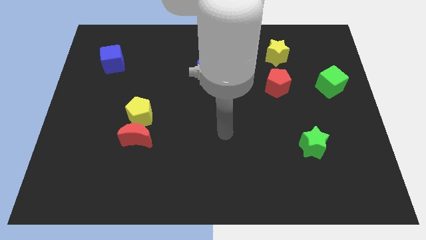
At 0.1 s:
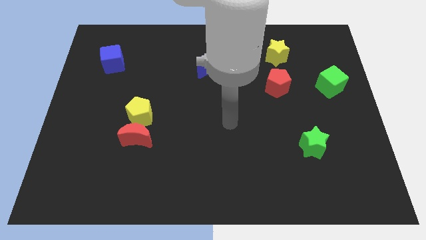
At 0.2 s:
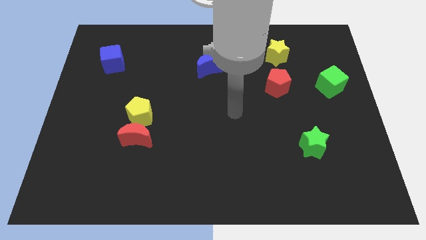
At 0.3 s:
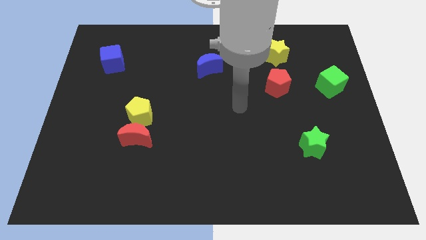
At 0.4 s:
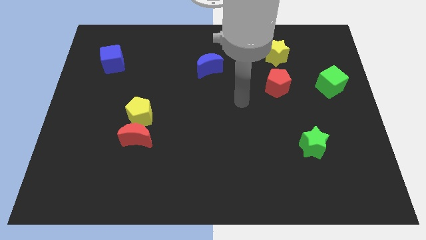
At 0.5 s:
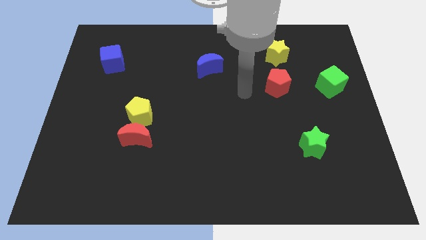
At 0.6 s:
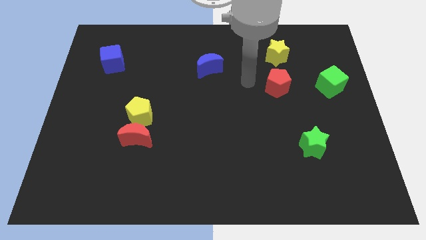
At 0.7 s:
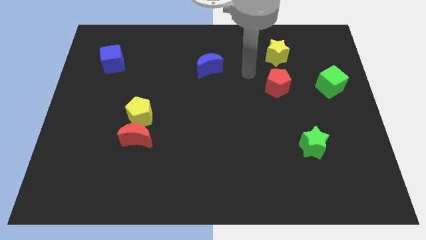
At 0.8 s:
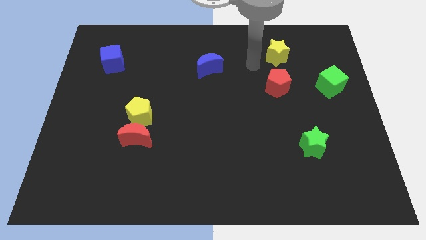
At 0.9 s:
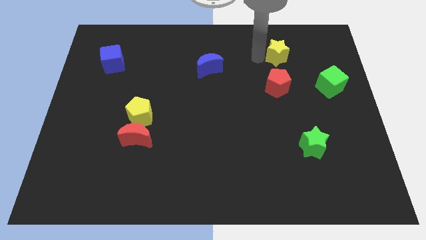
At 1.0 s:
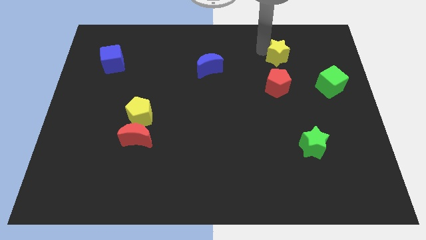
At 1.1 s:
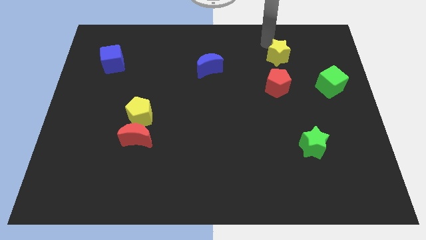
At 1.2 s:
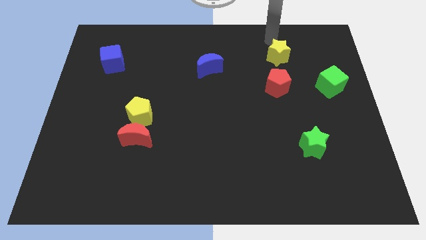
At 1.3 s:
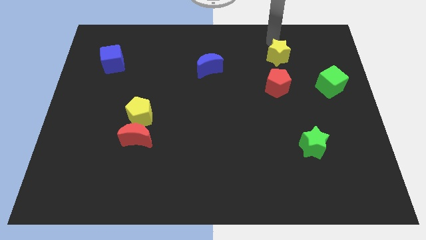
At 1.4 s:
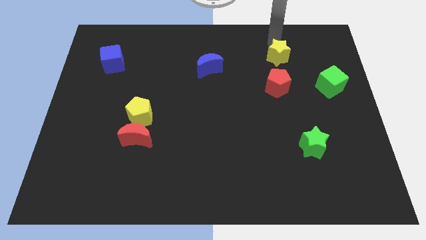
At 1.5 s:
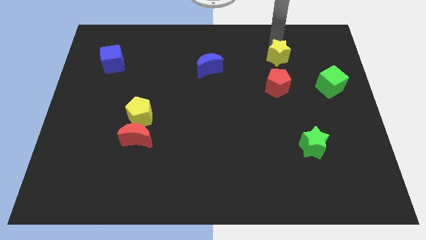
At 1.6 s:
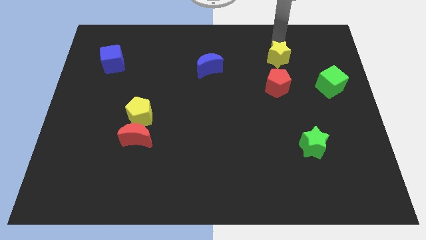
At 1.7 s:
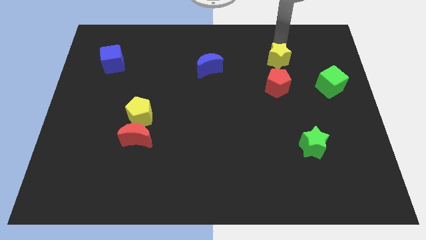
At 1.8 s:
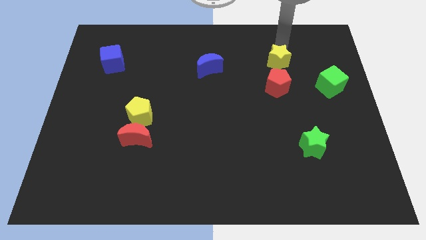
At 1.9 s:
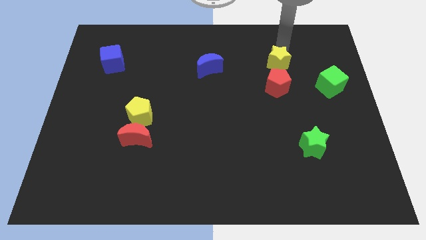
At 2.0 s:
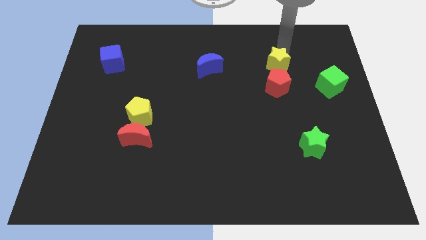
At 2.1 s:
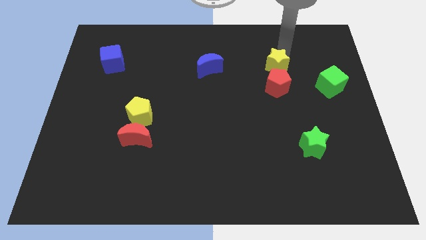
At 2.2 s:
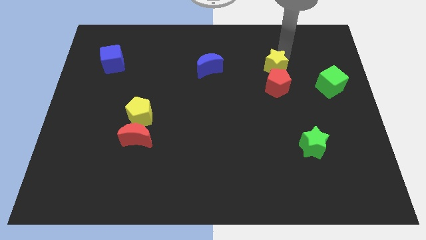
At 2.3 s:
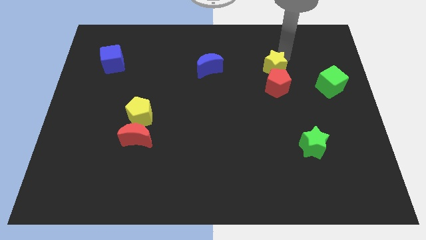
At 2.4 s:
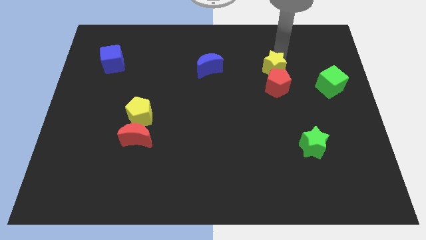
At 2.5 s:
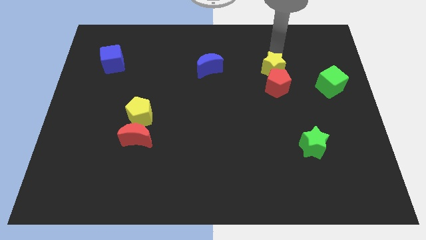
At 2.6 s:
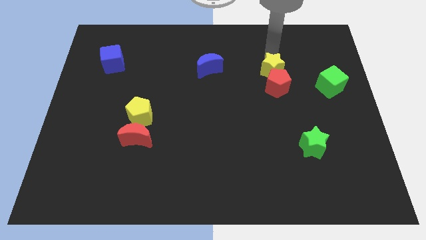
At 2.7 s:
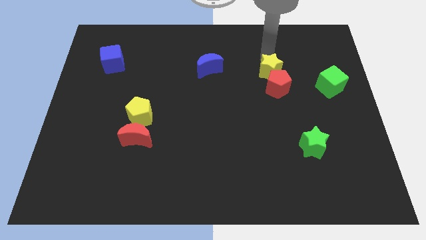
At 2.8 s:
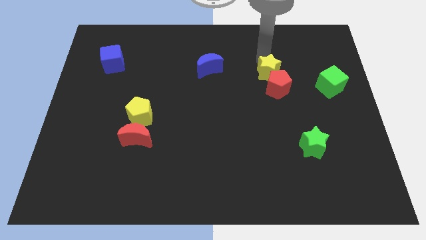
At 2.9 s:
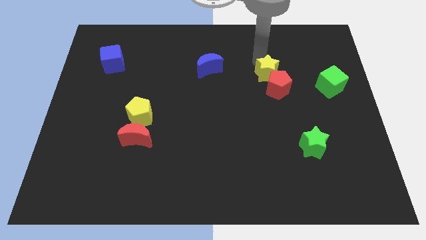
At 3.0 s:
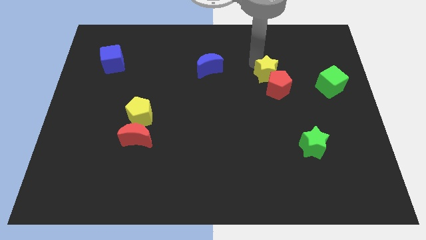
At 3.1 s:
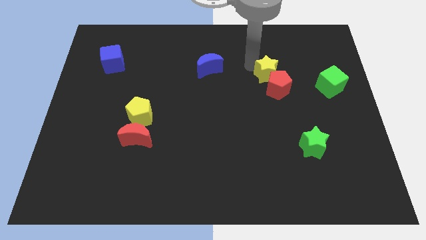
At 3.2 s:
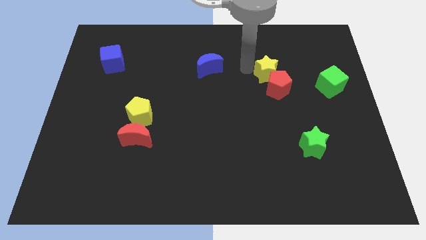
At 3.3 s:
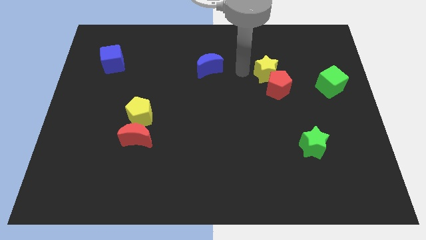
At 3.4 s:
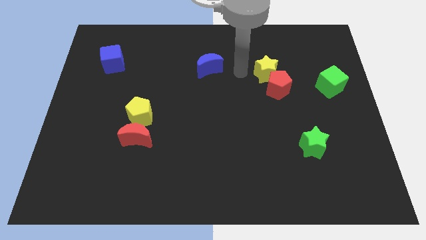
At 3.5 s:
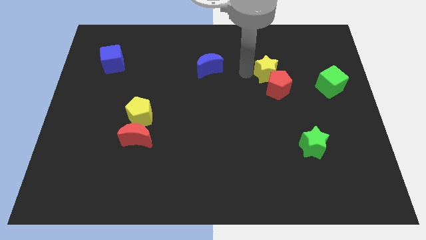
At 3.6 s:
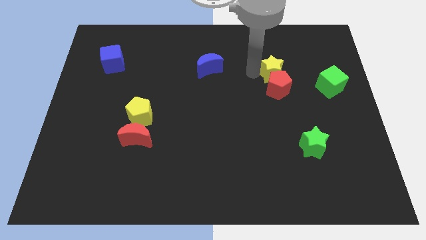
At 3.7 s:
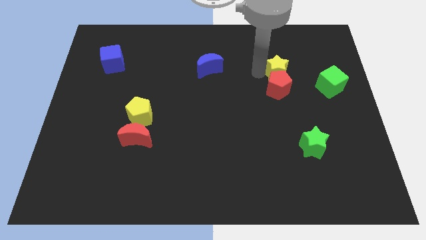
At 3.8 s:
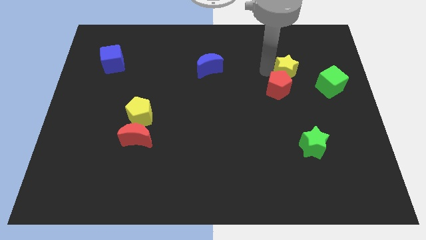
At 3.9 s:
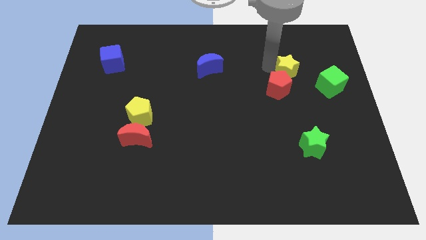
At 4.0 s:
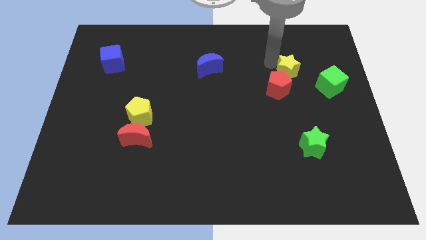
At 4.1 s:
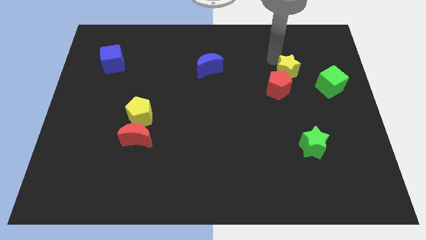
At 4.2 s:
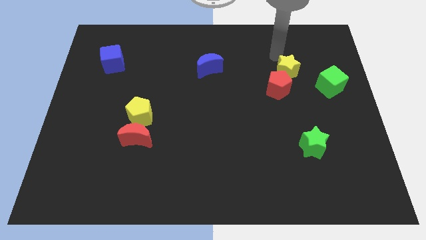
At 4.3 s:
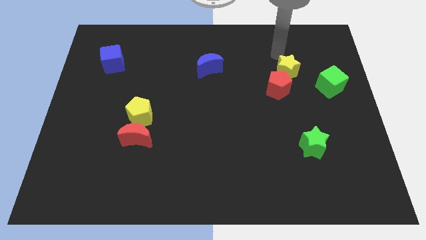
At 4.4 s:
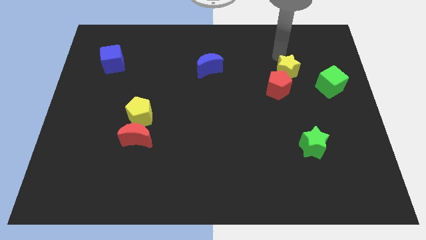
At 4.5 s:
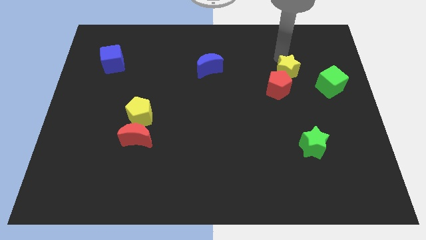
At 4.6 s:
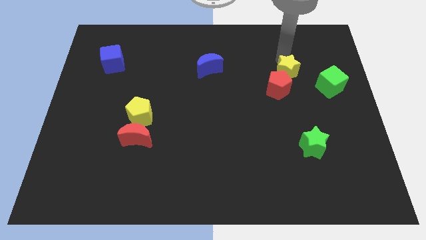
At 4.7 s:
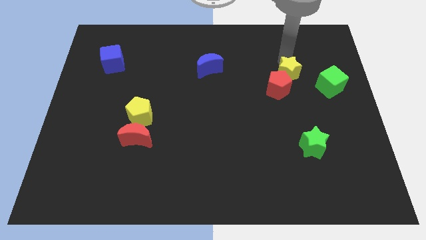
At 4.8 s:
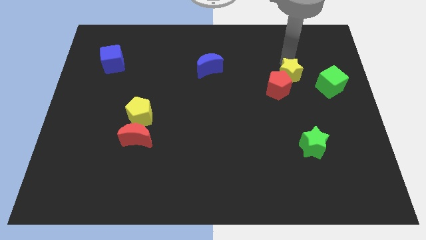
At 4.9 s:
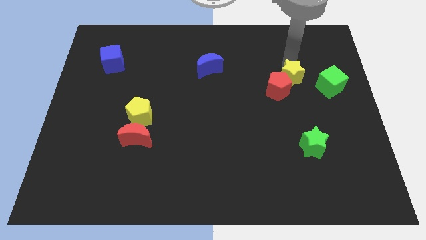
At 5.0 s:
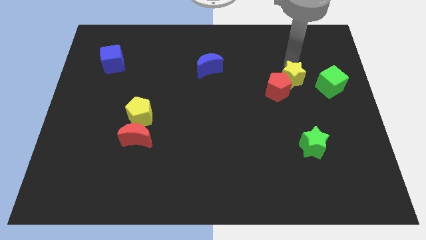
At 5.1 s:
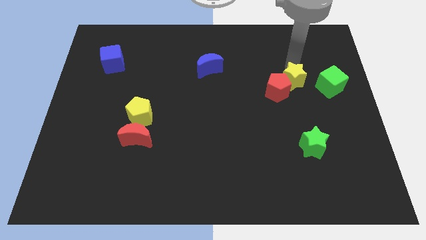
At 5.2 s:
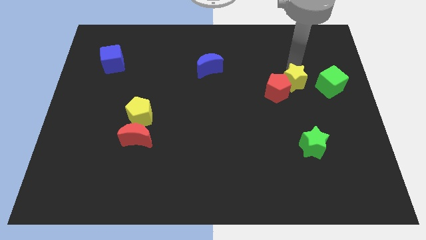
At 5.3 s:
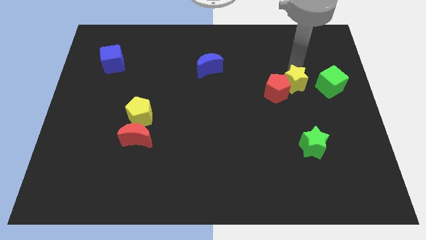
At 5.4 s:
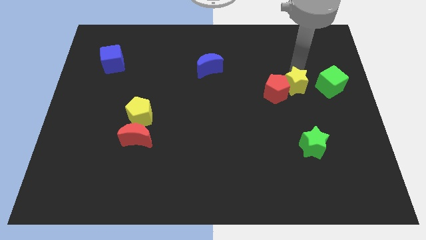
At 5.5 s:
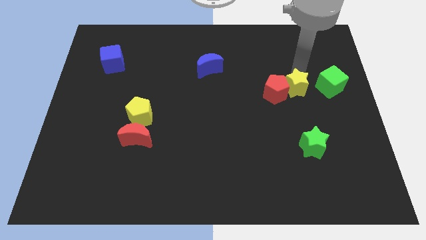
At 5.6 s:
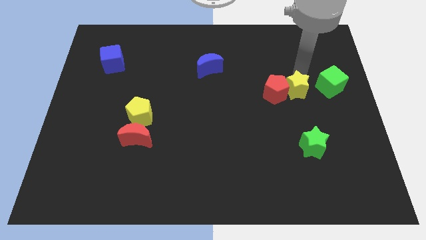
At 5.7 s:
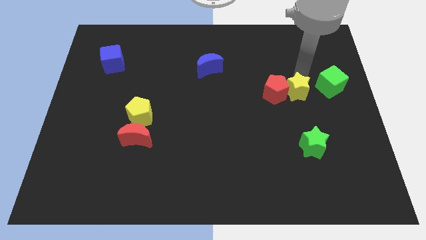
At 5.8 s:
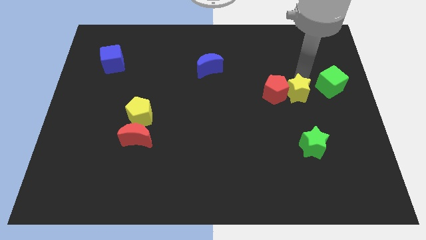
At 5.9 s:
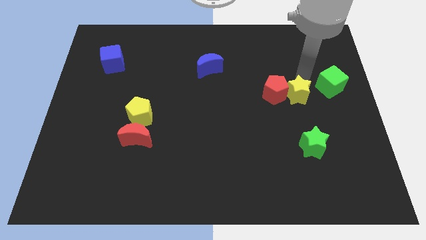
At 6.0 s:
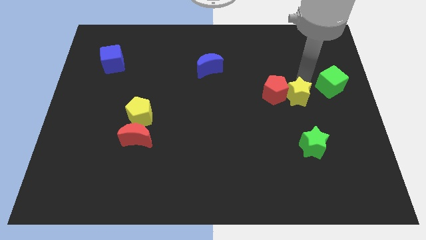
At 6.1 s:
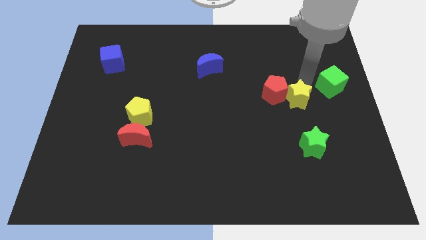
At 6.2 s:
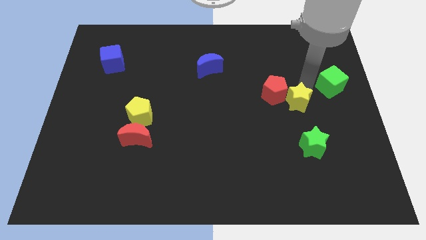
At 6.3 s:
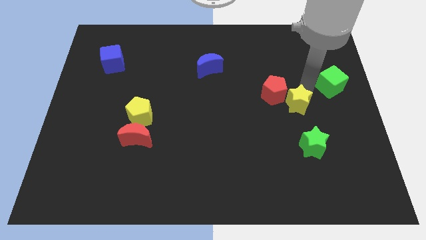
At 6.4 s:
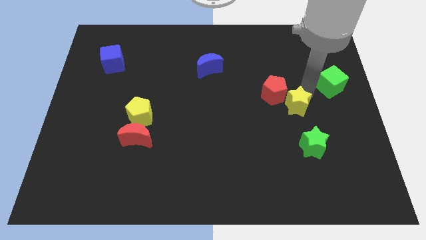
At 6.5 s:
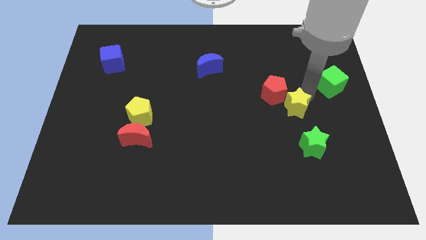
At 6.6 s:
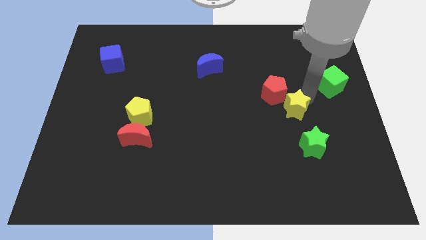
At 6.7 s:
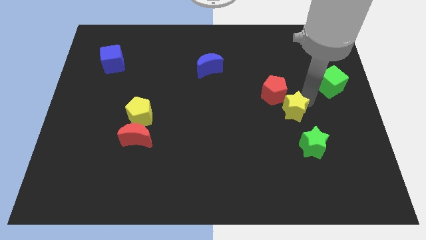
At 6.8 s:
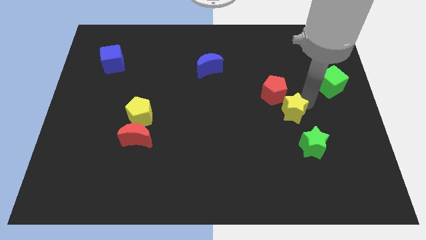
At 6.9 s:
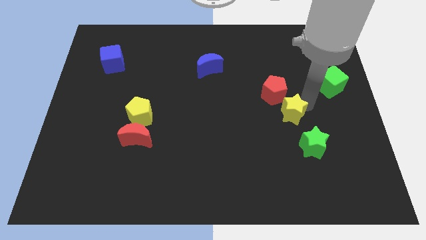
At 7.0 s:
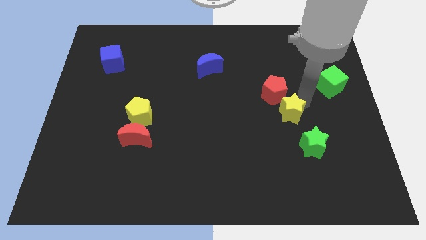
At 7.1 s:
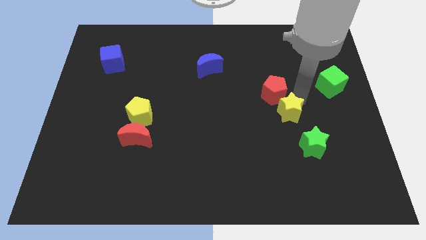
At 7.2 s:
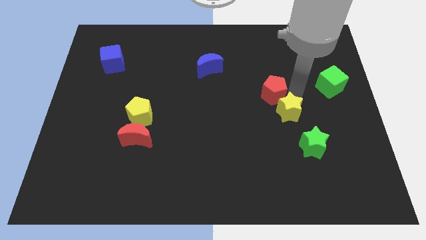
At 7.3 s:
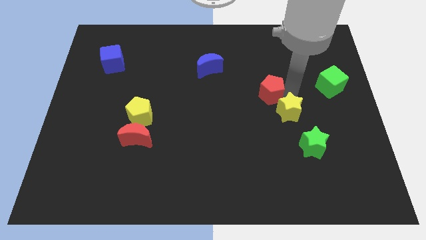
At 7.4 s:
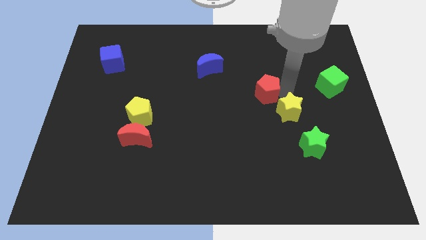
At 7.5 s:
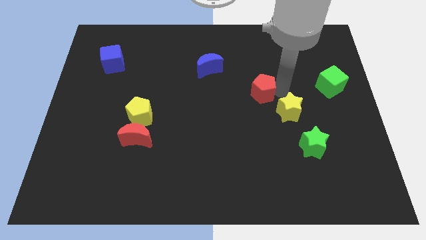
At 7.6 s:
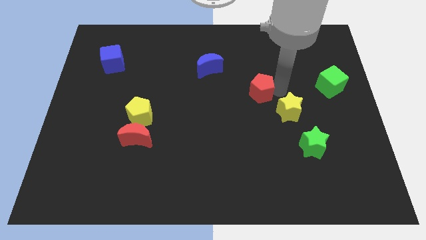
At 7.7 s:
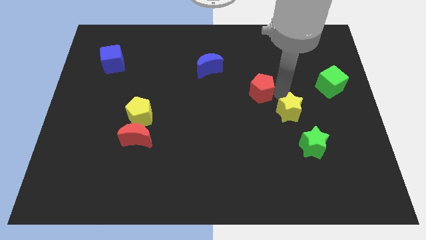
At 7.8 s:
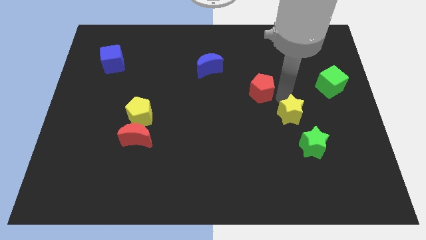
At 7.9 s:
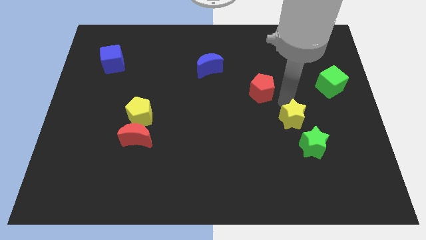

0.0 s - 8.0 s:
push the yellow star downwards
